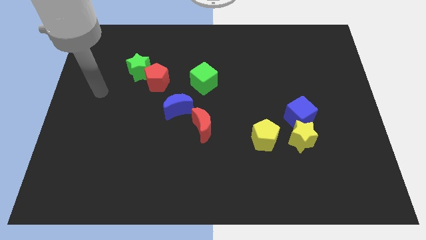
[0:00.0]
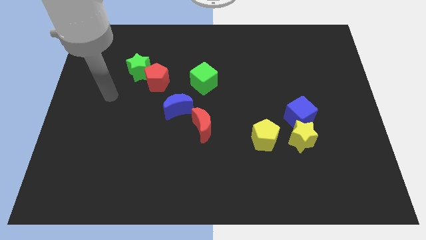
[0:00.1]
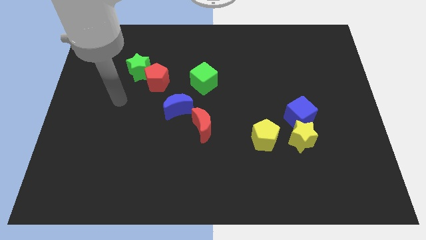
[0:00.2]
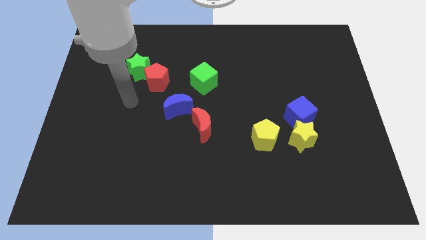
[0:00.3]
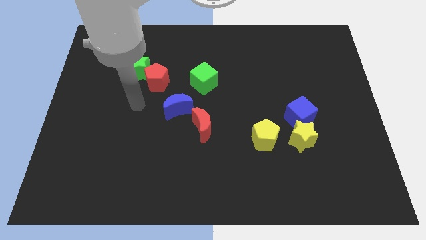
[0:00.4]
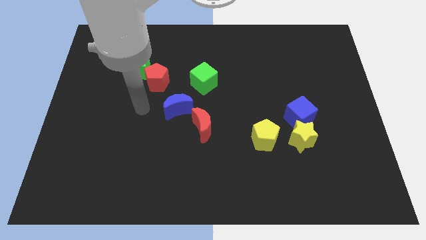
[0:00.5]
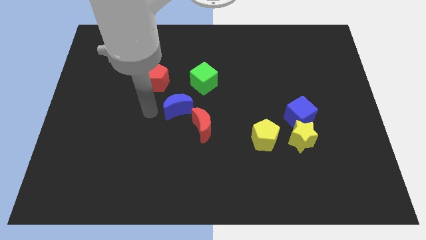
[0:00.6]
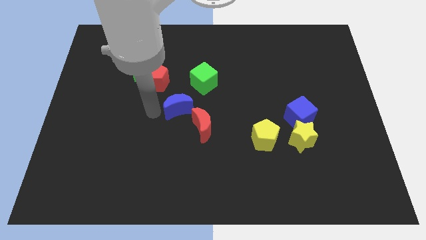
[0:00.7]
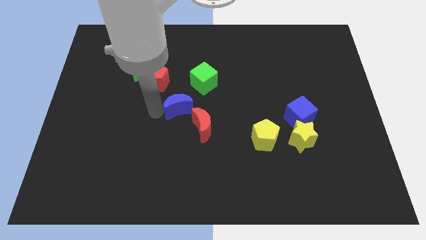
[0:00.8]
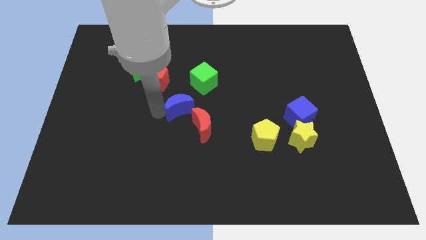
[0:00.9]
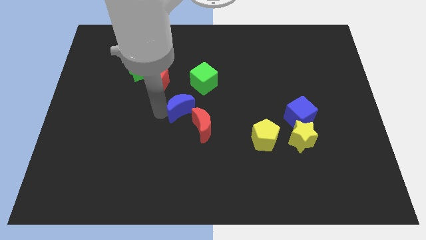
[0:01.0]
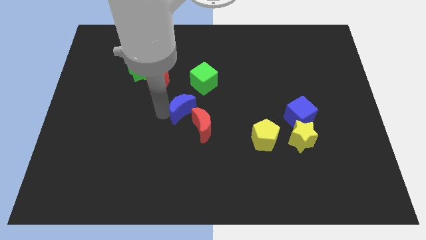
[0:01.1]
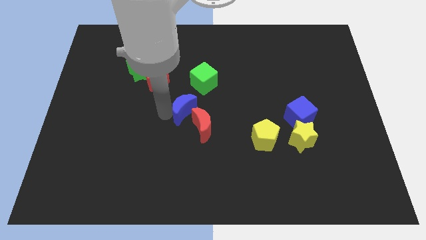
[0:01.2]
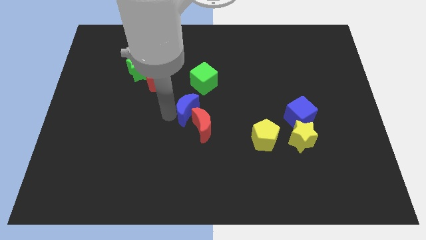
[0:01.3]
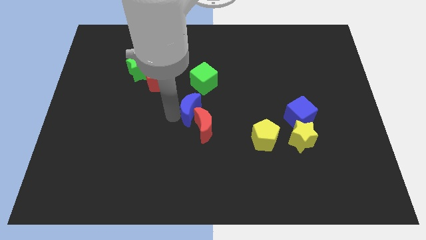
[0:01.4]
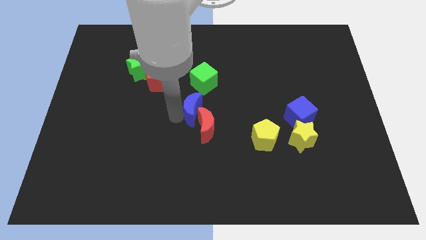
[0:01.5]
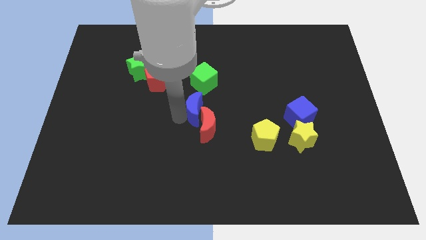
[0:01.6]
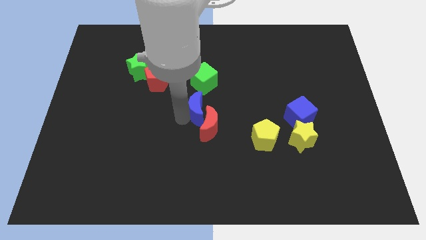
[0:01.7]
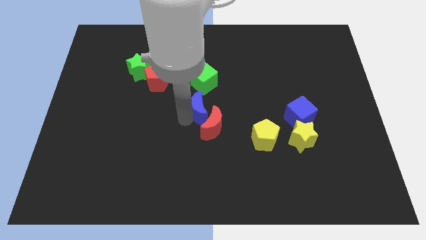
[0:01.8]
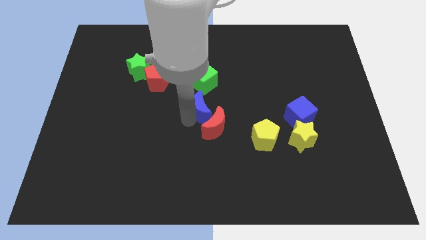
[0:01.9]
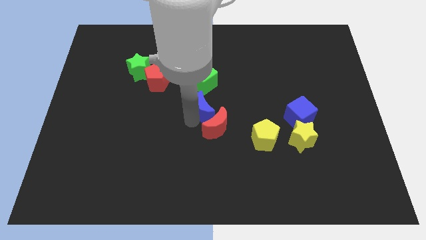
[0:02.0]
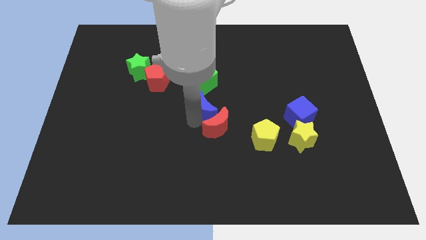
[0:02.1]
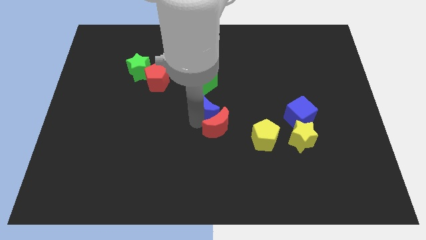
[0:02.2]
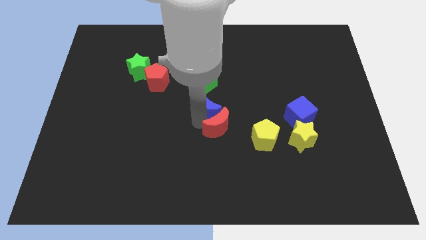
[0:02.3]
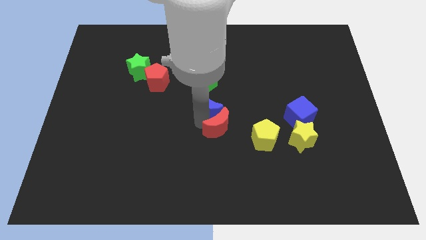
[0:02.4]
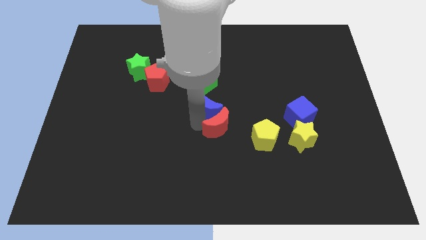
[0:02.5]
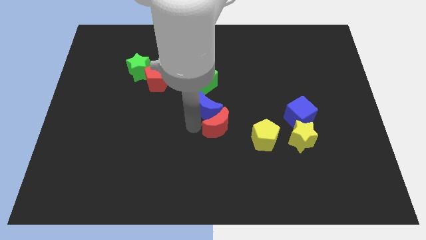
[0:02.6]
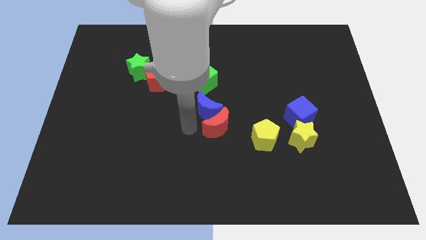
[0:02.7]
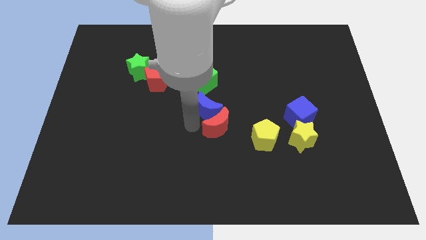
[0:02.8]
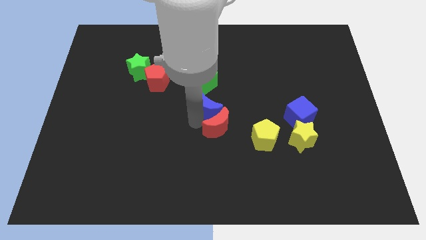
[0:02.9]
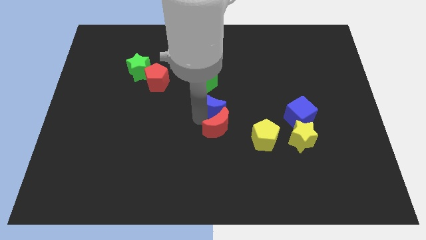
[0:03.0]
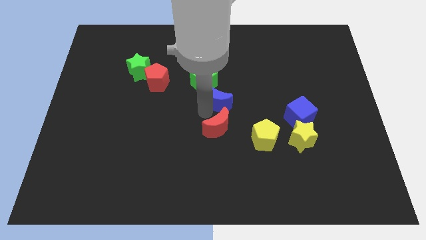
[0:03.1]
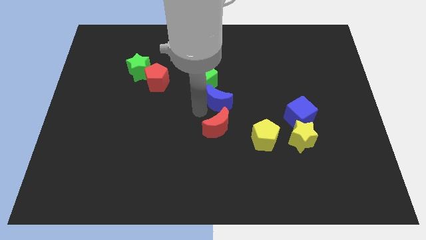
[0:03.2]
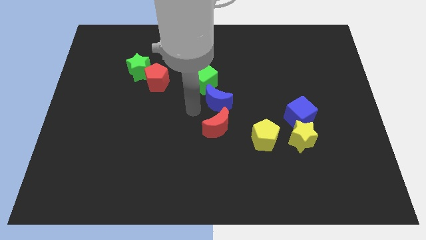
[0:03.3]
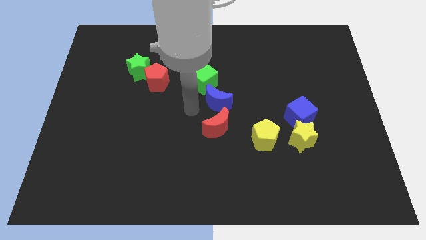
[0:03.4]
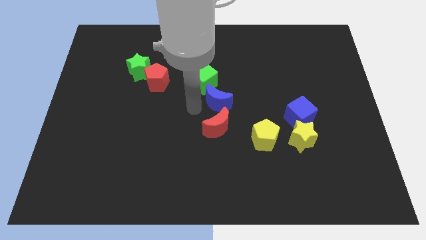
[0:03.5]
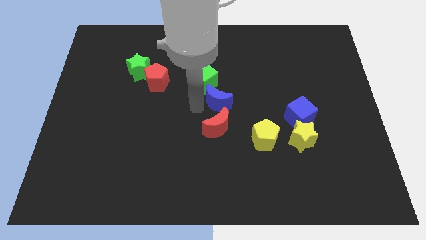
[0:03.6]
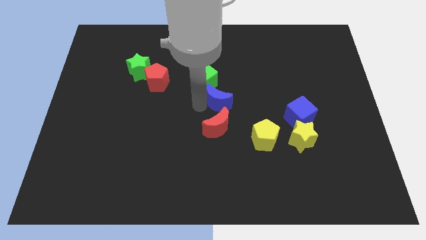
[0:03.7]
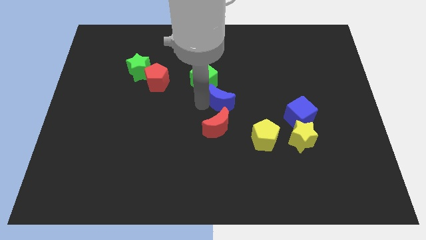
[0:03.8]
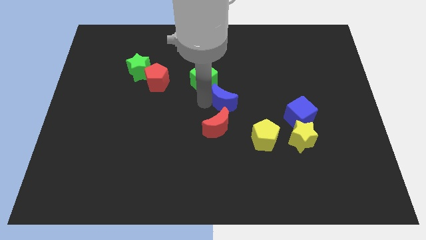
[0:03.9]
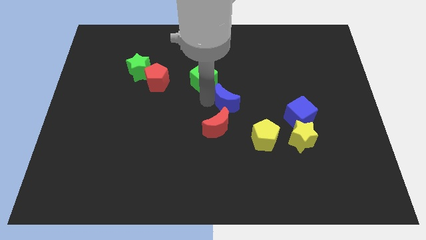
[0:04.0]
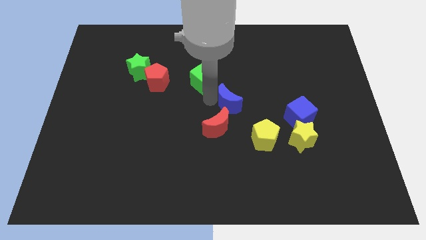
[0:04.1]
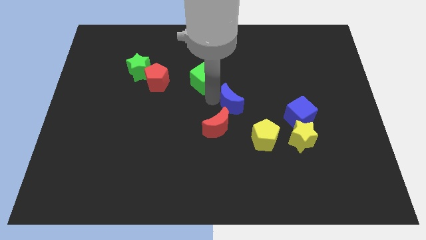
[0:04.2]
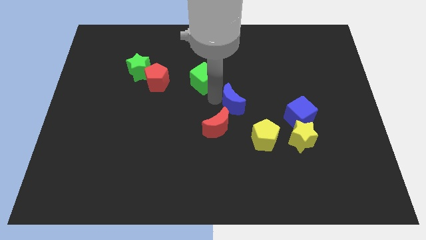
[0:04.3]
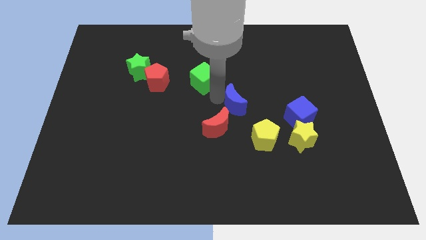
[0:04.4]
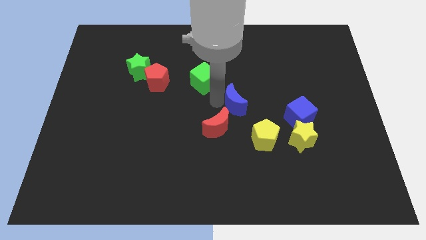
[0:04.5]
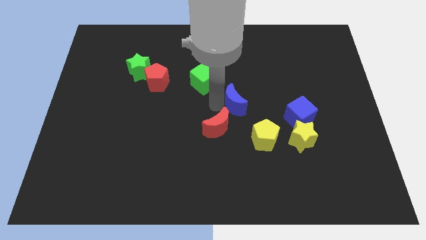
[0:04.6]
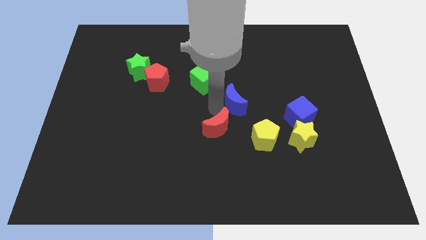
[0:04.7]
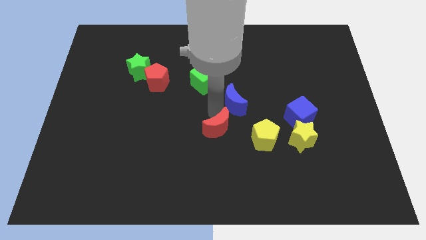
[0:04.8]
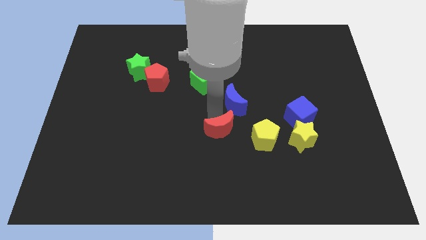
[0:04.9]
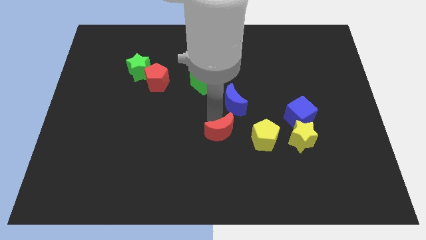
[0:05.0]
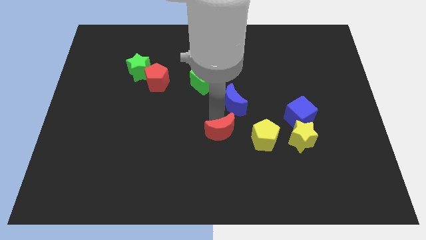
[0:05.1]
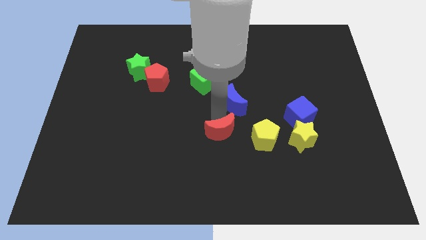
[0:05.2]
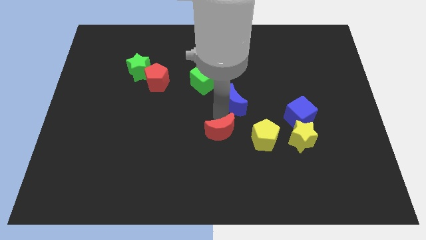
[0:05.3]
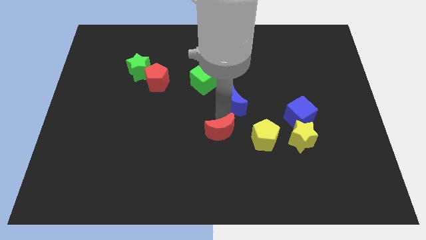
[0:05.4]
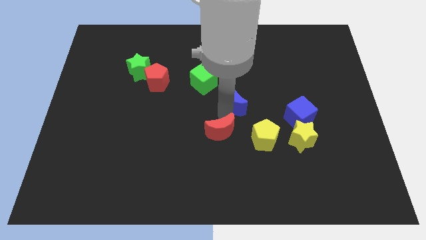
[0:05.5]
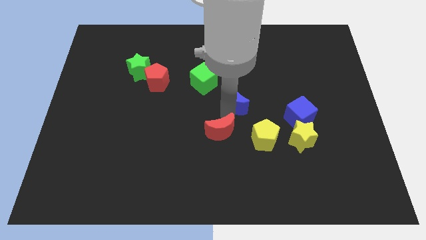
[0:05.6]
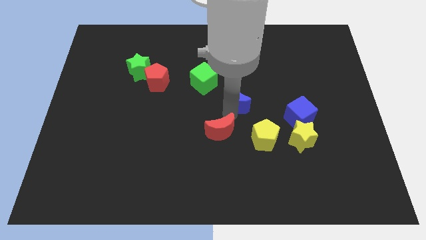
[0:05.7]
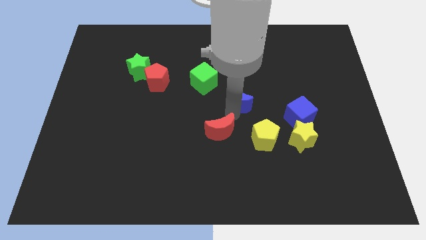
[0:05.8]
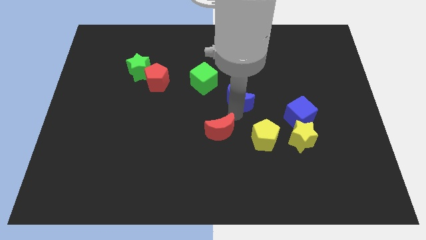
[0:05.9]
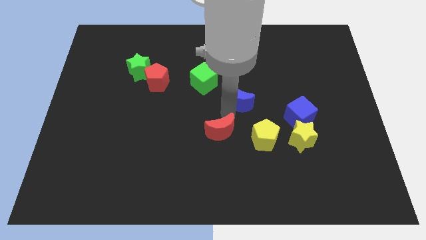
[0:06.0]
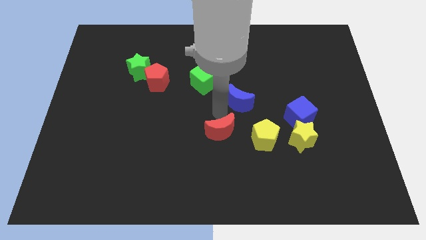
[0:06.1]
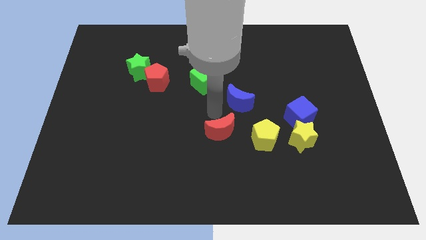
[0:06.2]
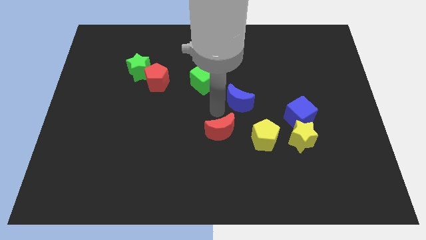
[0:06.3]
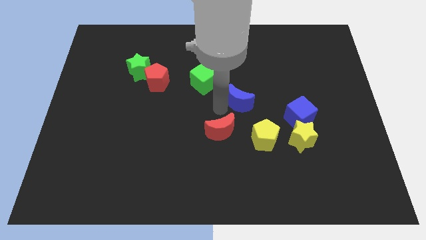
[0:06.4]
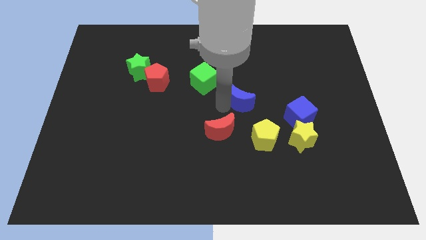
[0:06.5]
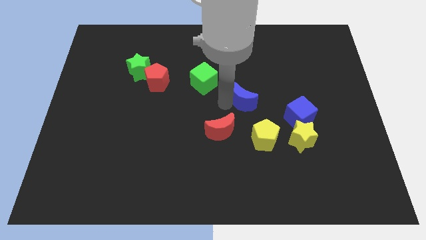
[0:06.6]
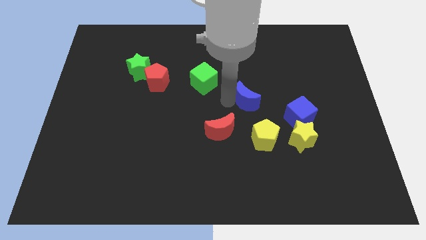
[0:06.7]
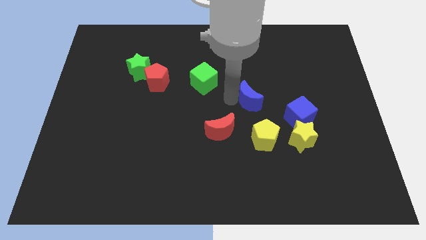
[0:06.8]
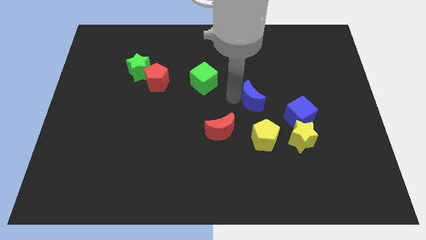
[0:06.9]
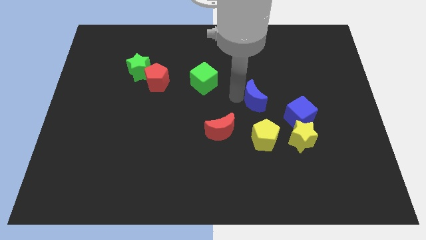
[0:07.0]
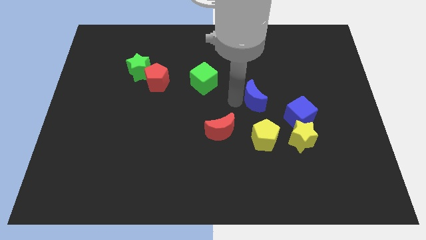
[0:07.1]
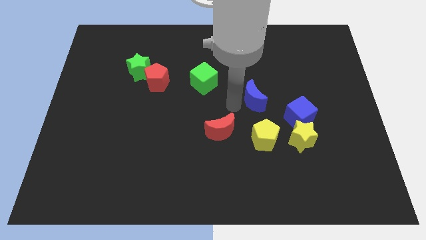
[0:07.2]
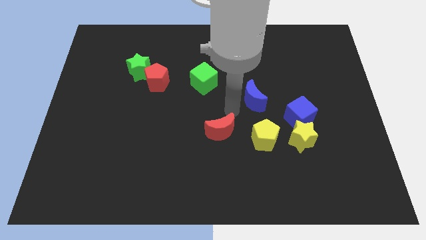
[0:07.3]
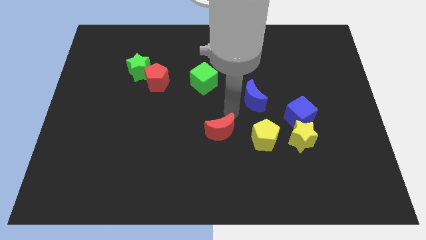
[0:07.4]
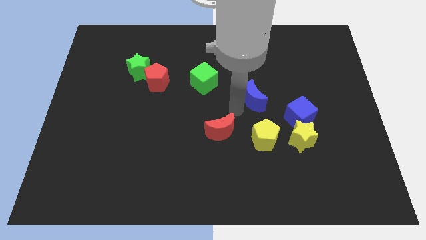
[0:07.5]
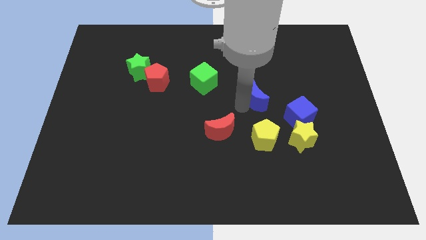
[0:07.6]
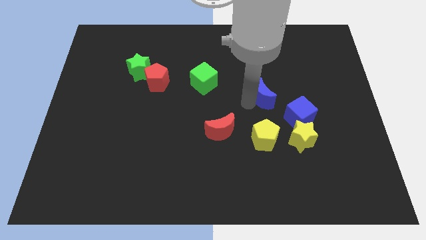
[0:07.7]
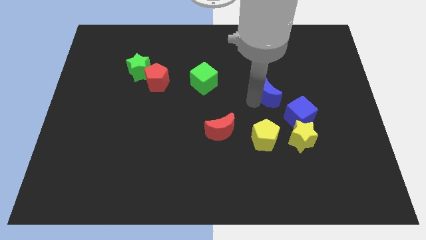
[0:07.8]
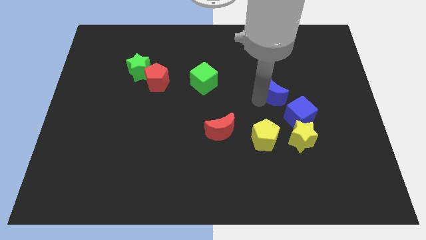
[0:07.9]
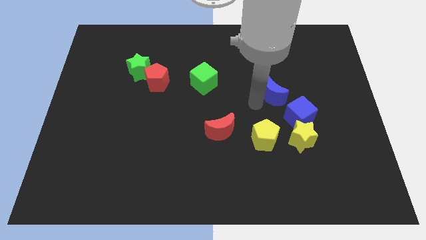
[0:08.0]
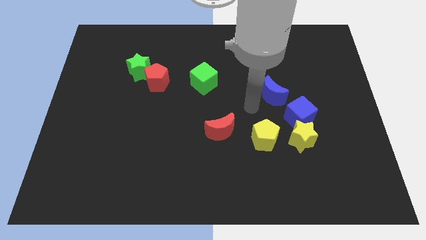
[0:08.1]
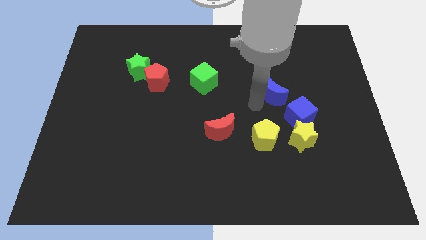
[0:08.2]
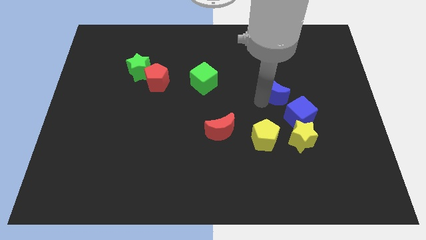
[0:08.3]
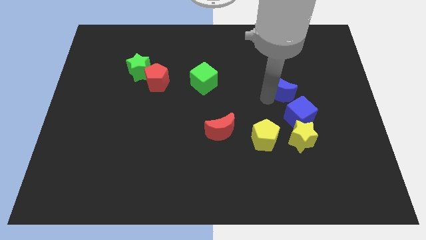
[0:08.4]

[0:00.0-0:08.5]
put the blue moon to the top side of the blue cube
